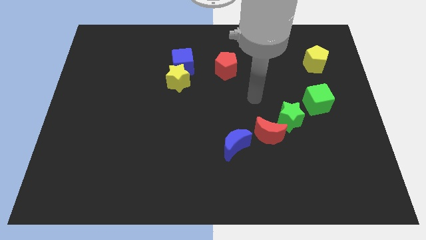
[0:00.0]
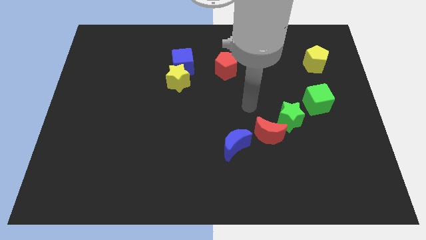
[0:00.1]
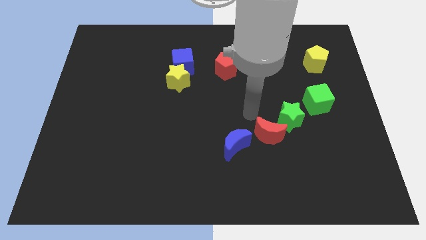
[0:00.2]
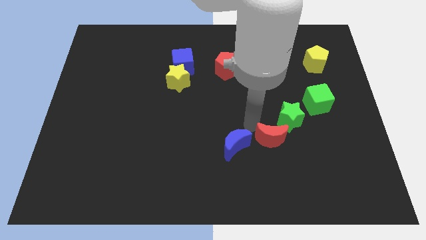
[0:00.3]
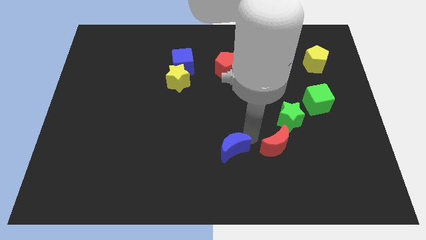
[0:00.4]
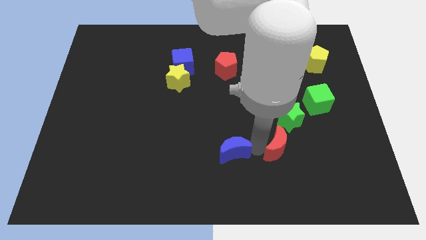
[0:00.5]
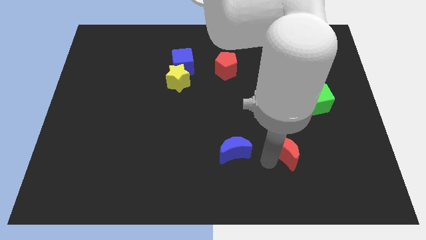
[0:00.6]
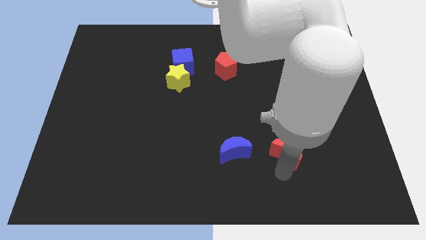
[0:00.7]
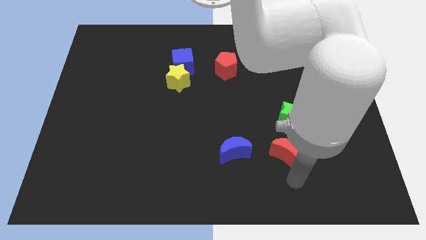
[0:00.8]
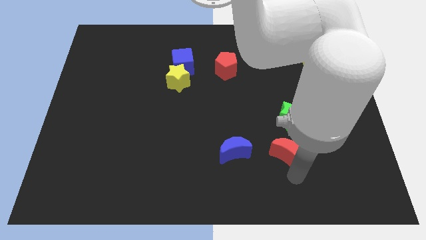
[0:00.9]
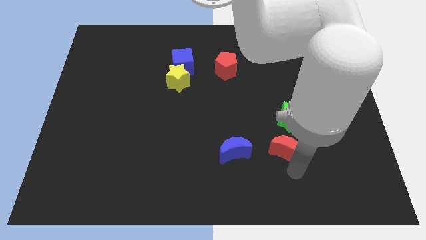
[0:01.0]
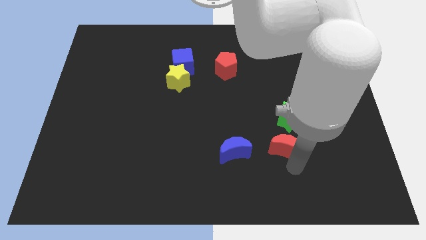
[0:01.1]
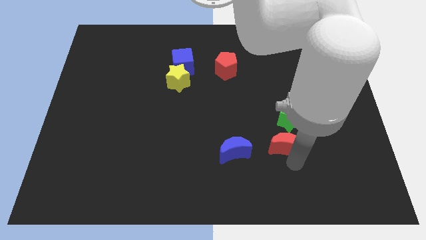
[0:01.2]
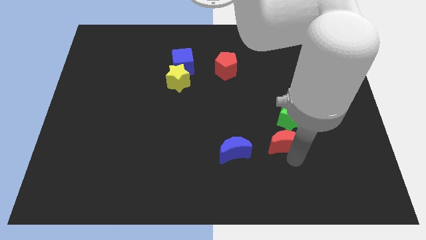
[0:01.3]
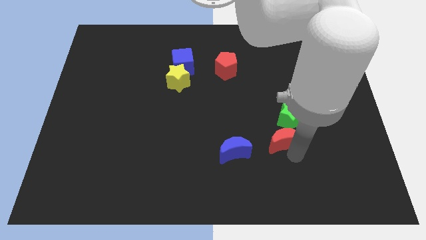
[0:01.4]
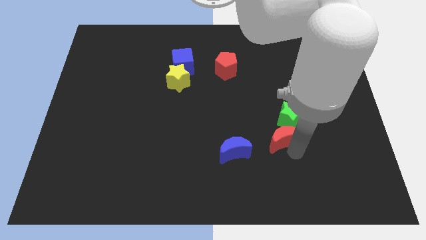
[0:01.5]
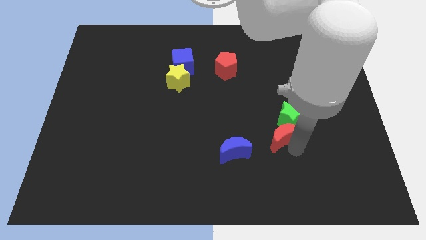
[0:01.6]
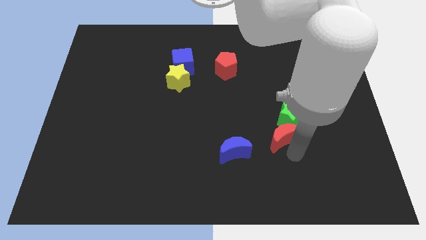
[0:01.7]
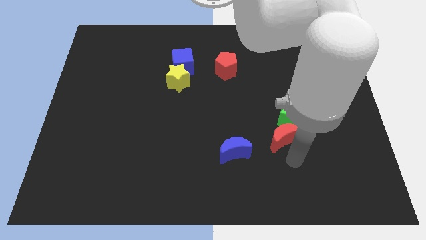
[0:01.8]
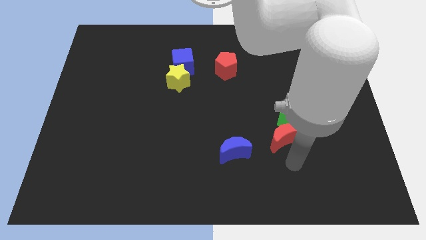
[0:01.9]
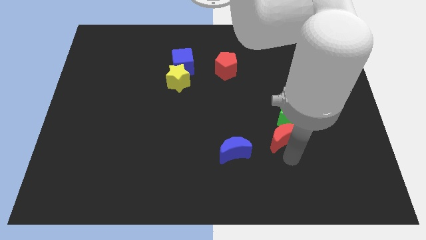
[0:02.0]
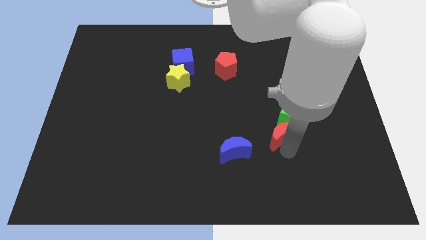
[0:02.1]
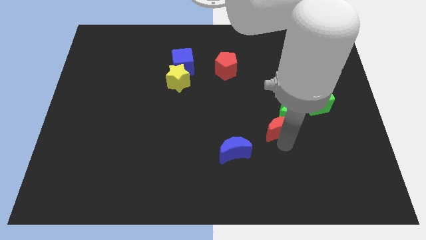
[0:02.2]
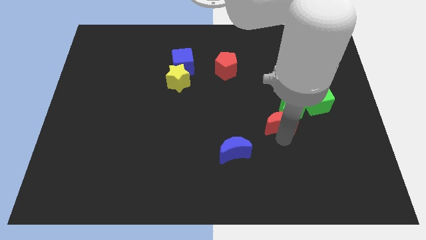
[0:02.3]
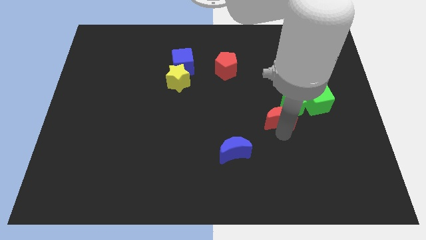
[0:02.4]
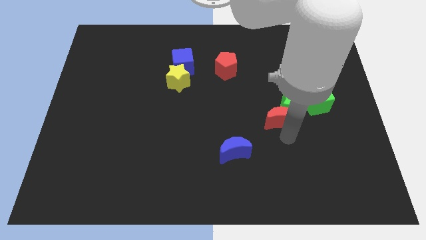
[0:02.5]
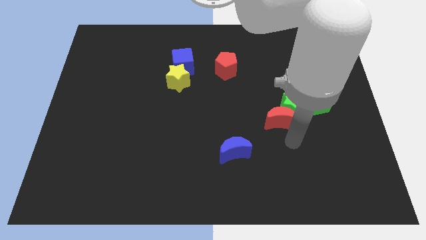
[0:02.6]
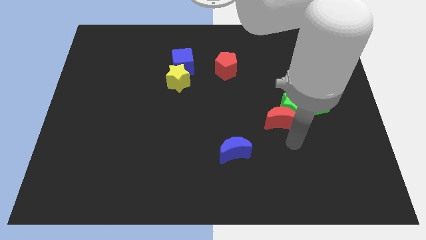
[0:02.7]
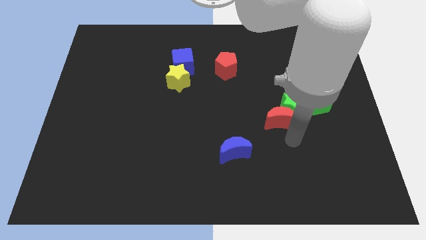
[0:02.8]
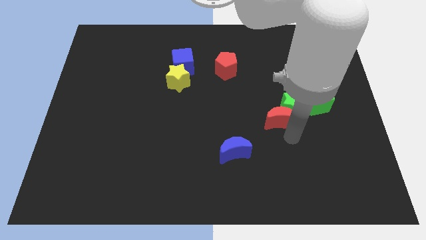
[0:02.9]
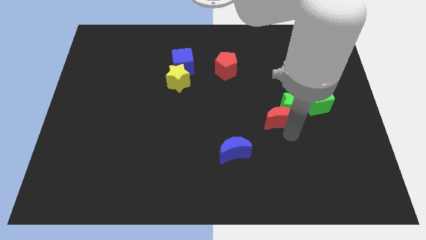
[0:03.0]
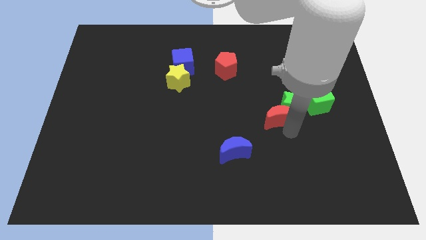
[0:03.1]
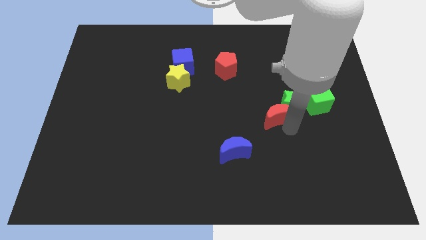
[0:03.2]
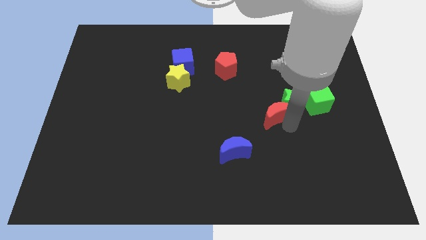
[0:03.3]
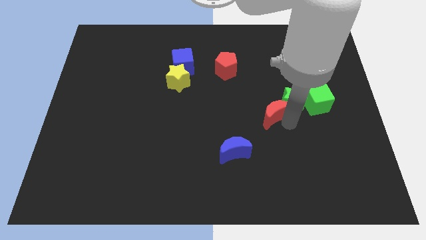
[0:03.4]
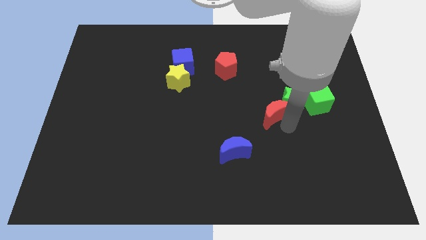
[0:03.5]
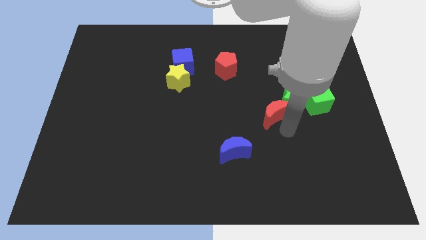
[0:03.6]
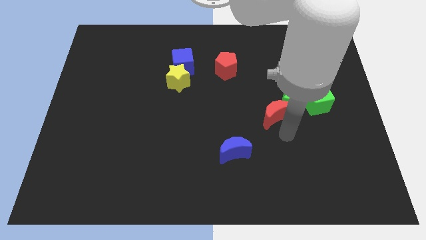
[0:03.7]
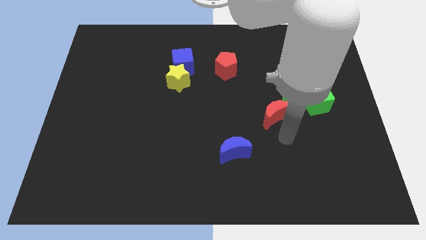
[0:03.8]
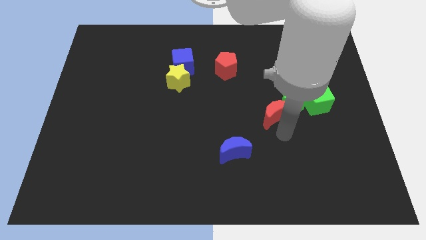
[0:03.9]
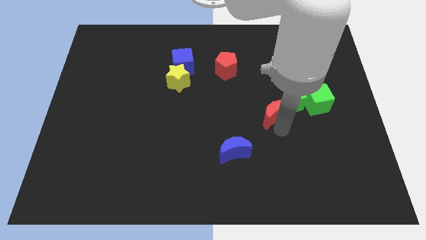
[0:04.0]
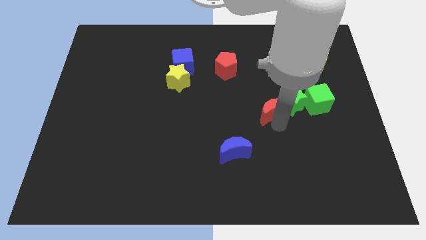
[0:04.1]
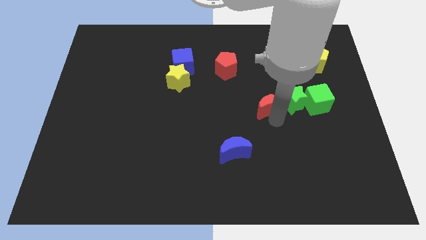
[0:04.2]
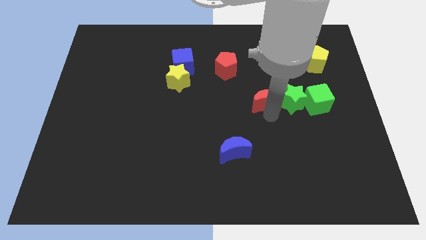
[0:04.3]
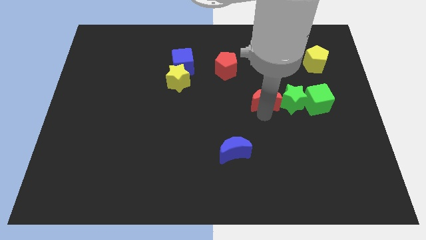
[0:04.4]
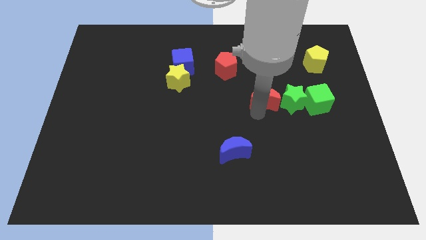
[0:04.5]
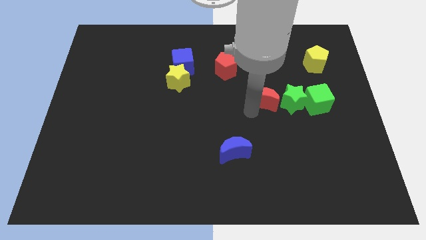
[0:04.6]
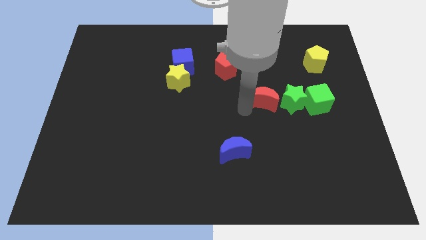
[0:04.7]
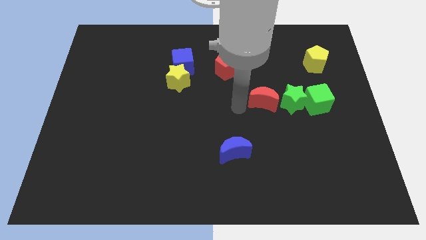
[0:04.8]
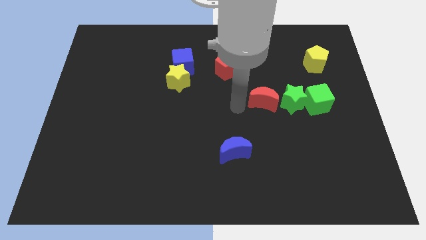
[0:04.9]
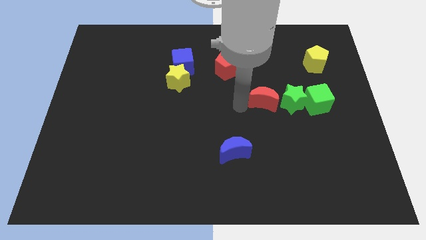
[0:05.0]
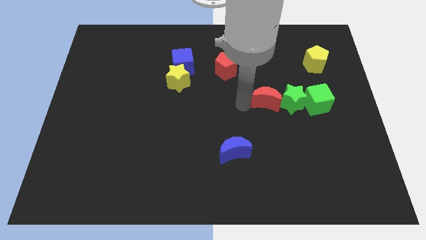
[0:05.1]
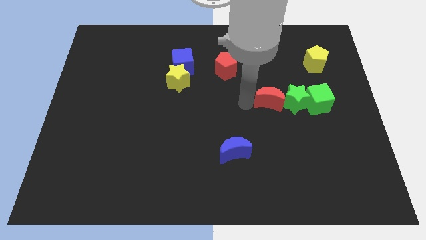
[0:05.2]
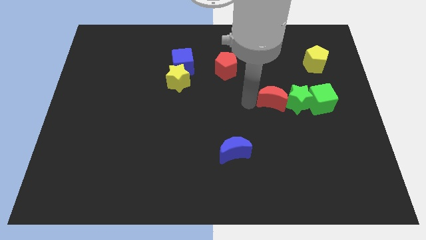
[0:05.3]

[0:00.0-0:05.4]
slightly push the red moon upwards and then to the right

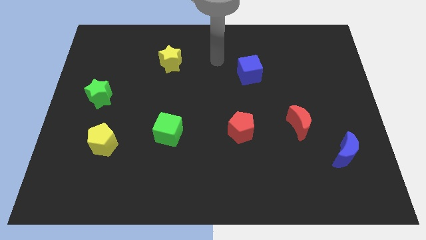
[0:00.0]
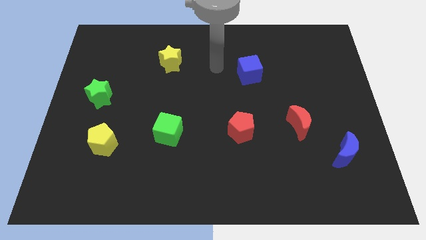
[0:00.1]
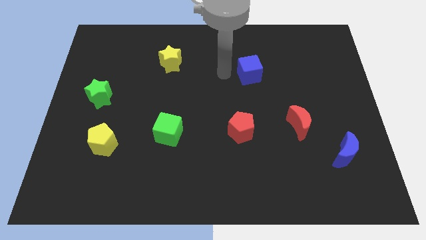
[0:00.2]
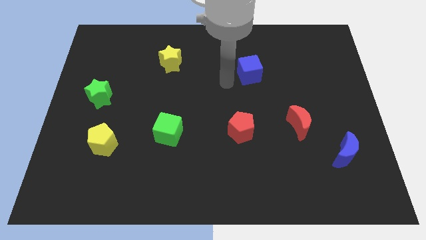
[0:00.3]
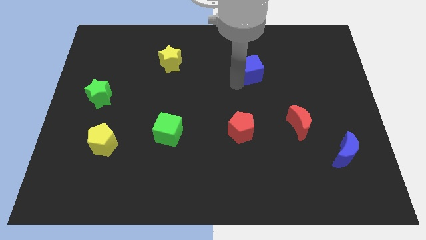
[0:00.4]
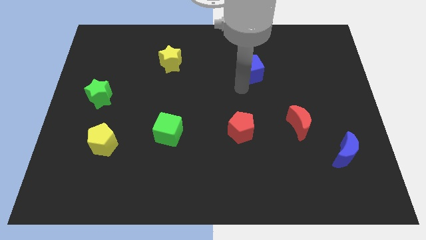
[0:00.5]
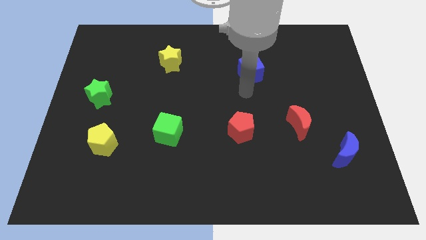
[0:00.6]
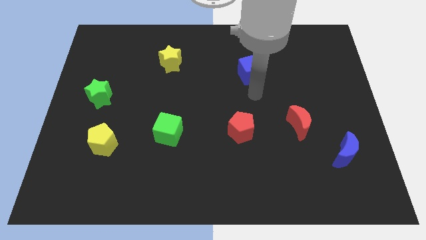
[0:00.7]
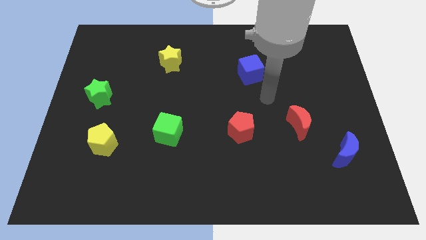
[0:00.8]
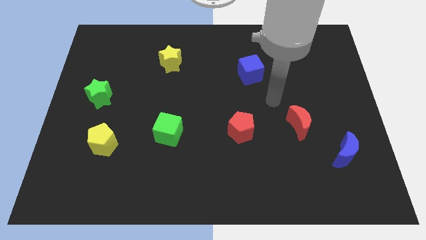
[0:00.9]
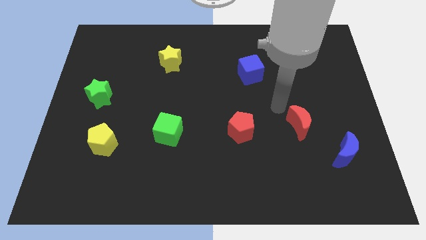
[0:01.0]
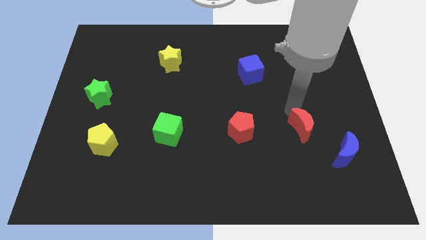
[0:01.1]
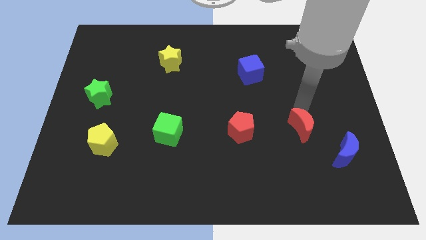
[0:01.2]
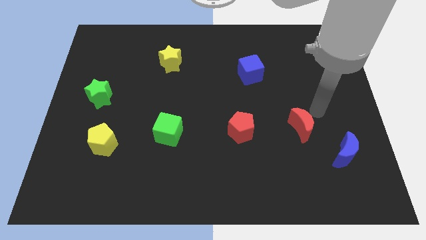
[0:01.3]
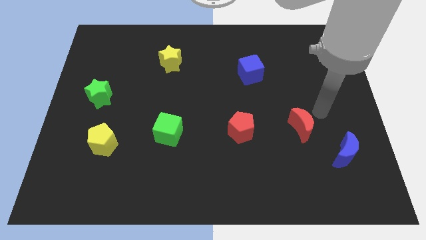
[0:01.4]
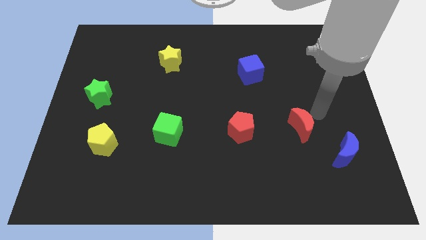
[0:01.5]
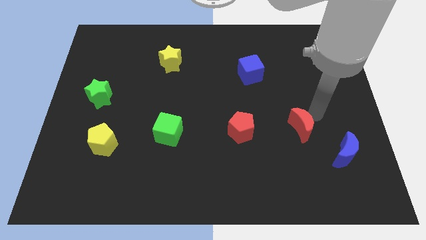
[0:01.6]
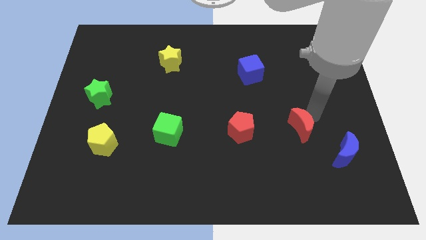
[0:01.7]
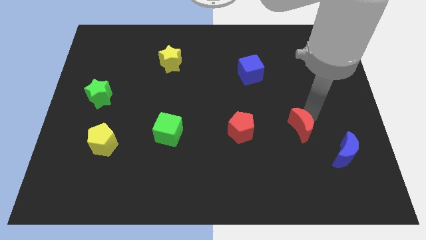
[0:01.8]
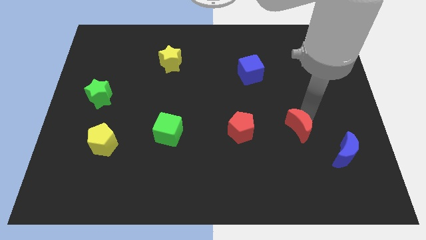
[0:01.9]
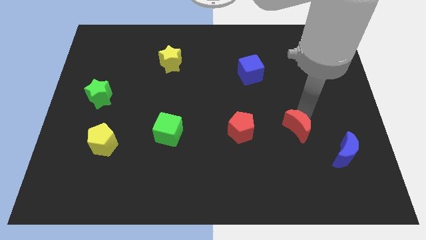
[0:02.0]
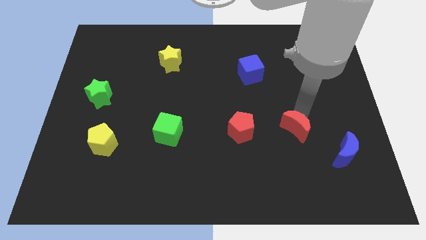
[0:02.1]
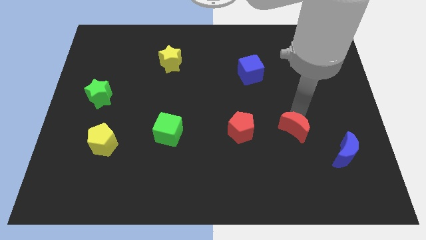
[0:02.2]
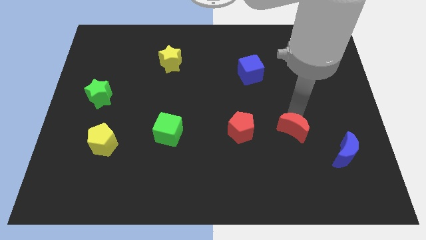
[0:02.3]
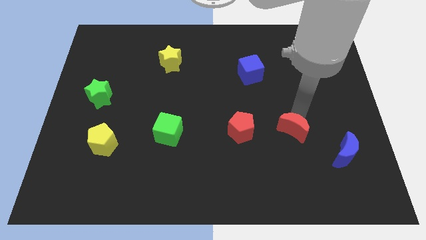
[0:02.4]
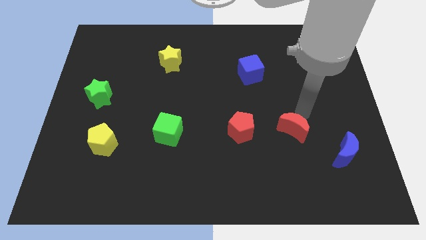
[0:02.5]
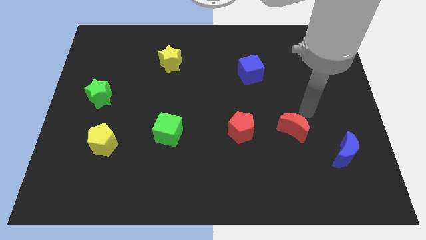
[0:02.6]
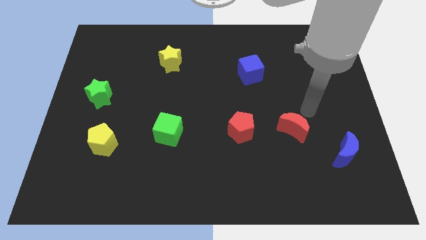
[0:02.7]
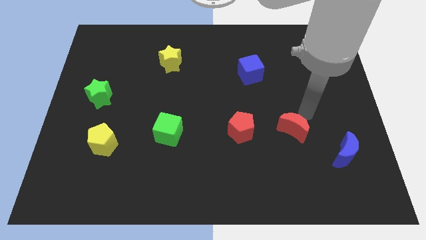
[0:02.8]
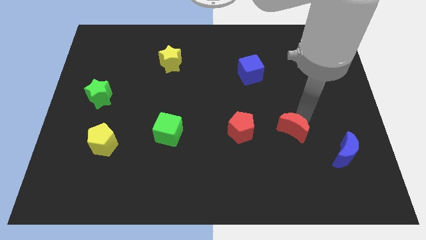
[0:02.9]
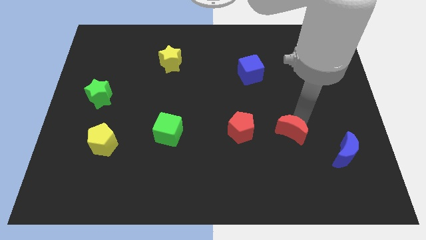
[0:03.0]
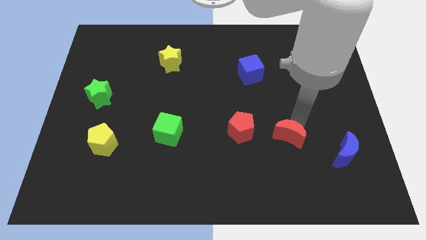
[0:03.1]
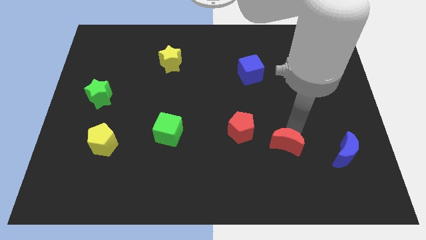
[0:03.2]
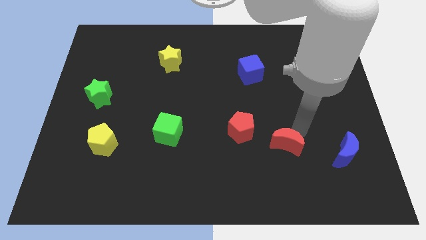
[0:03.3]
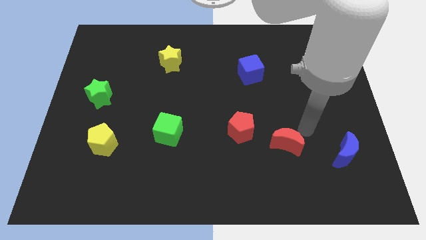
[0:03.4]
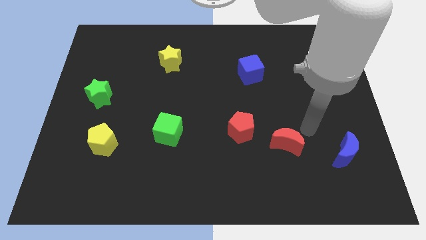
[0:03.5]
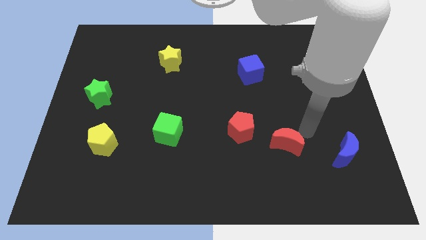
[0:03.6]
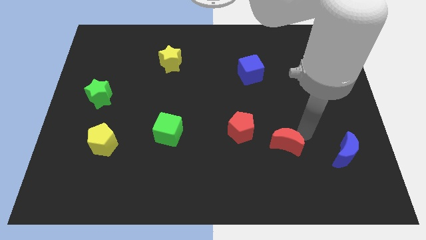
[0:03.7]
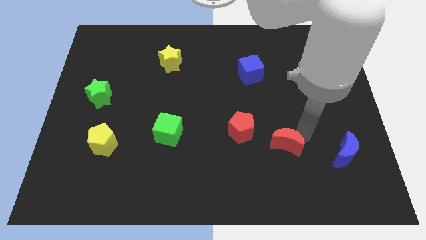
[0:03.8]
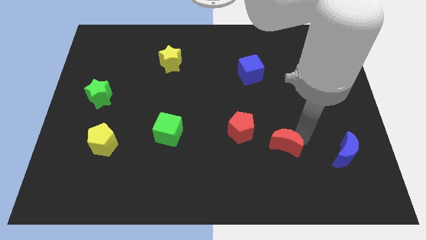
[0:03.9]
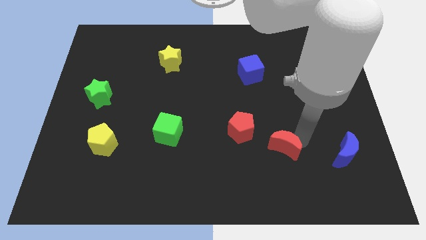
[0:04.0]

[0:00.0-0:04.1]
move the red moon diagonally down and left somewhat
